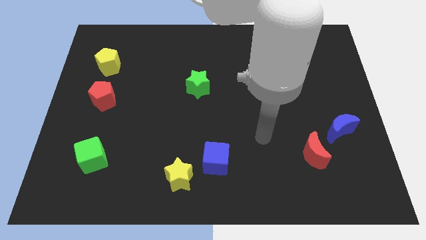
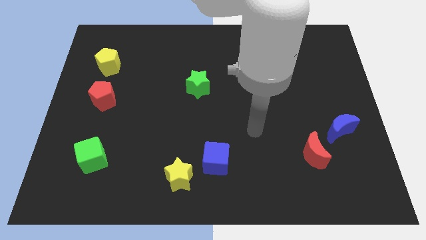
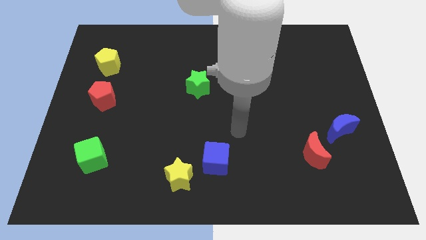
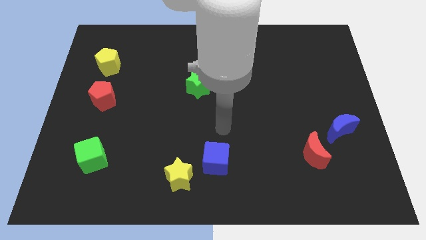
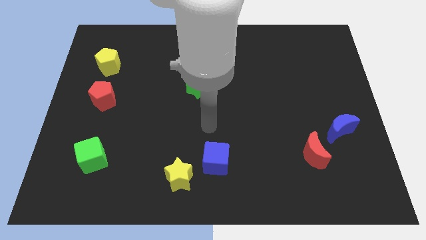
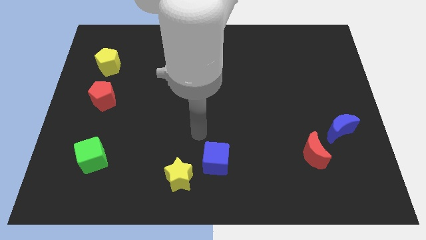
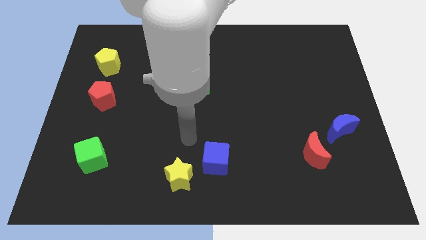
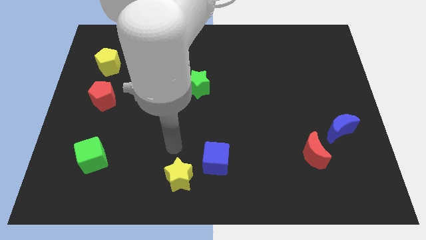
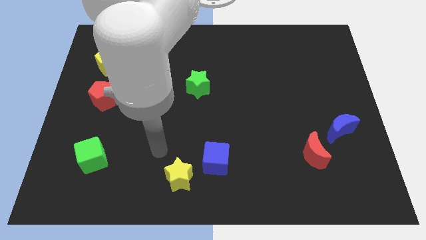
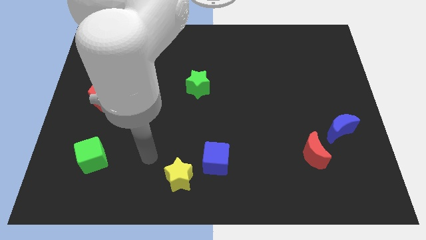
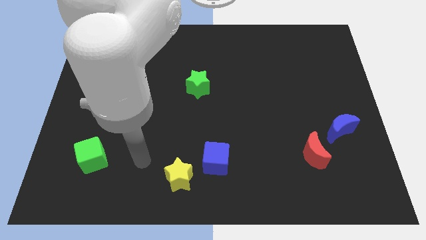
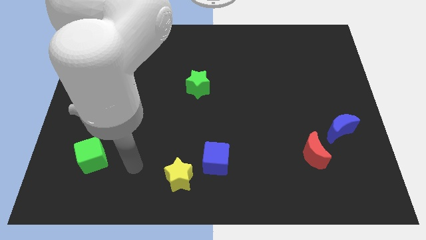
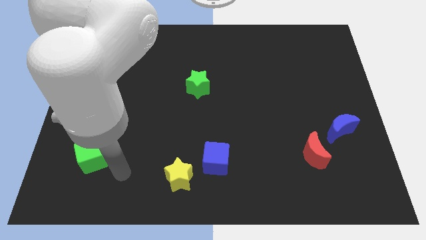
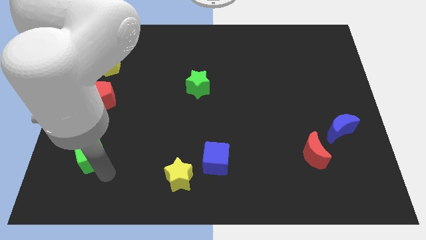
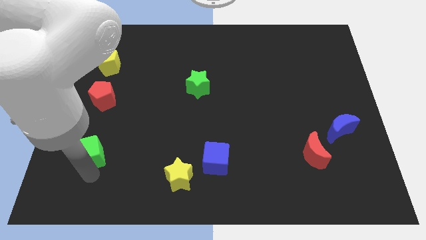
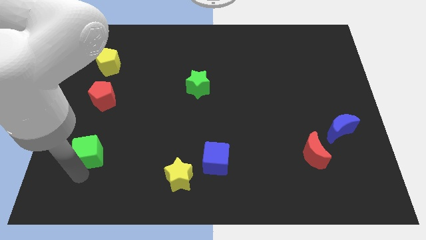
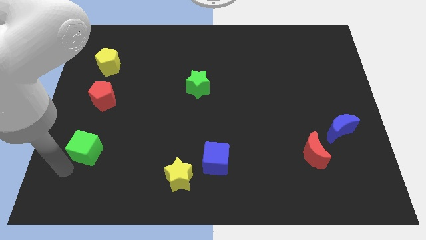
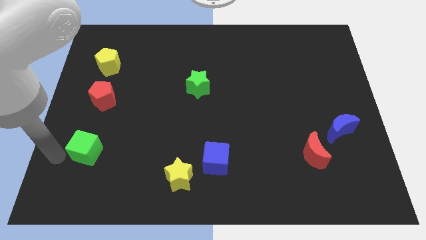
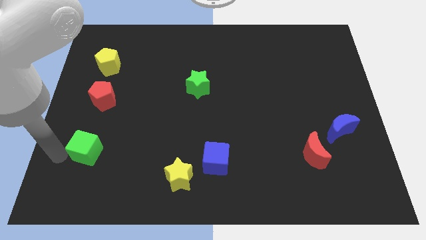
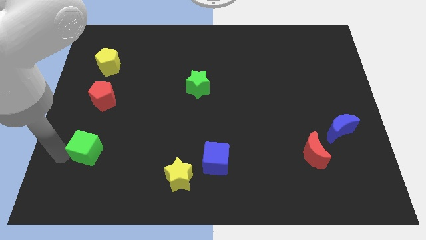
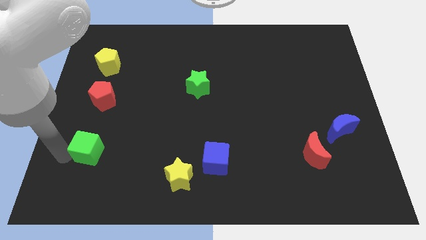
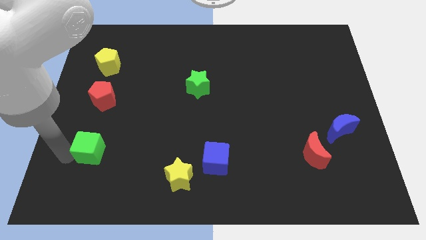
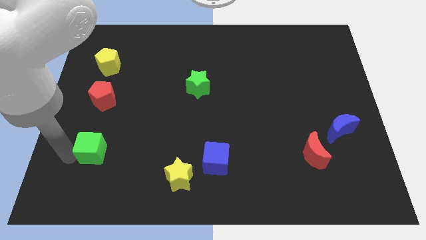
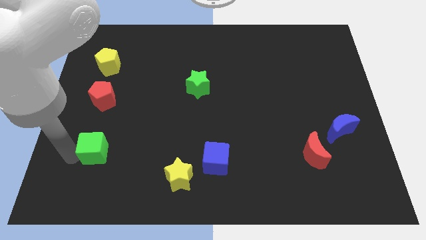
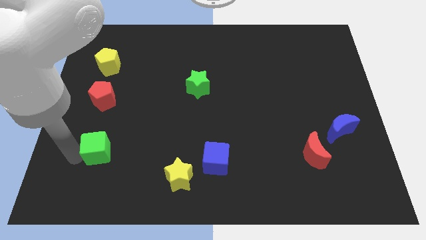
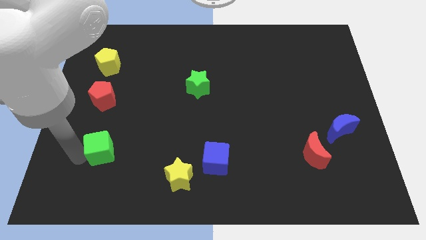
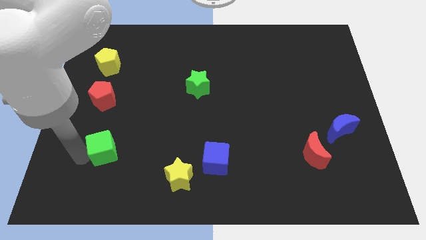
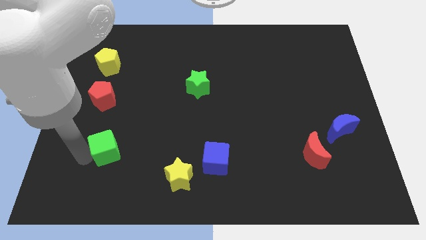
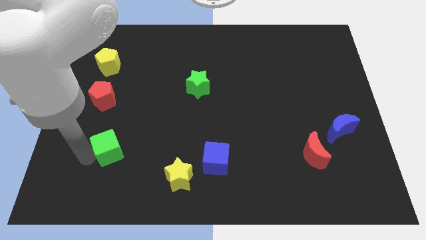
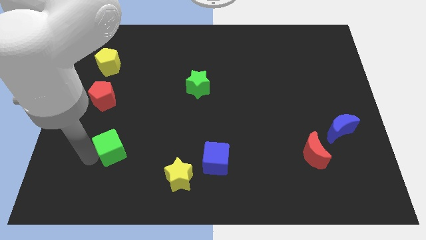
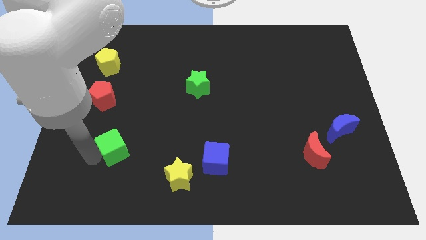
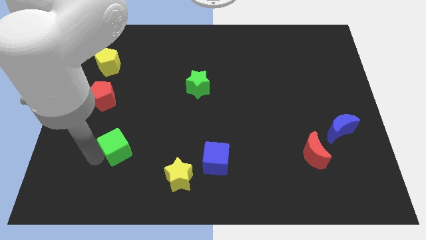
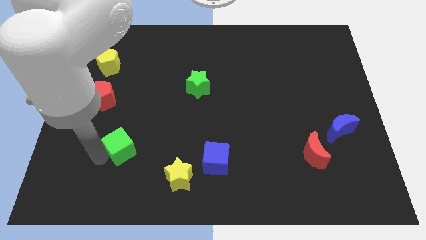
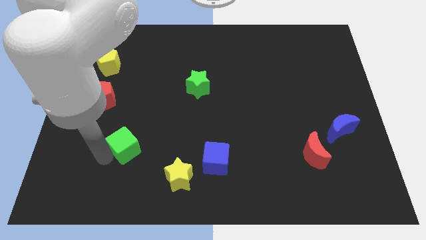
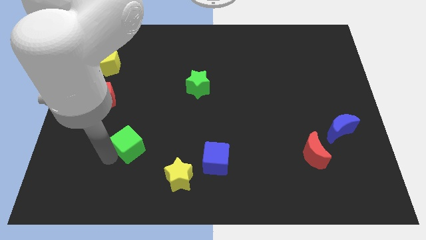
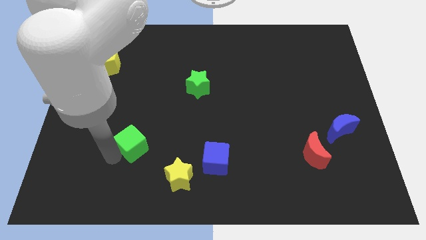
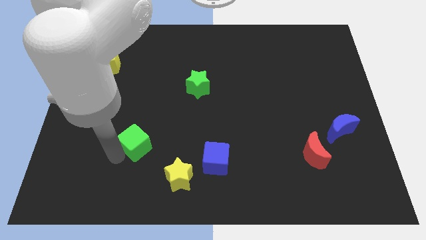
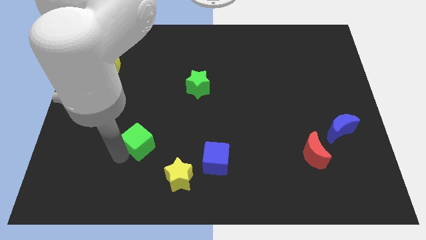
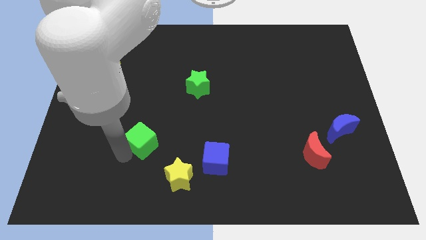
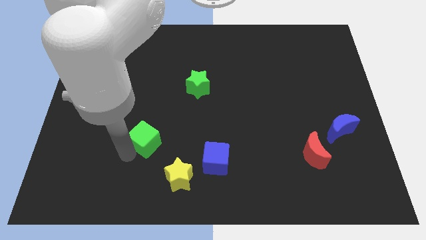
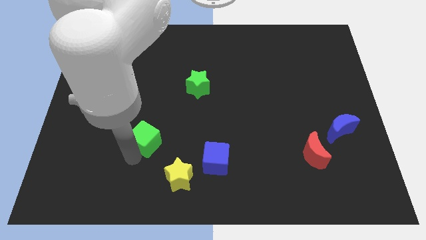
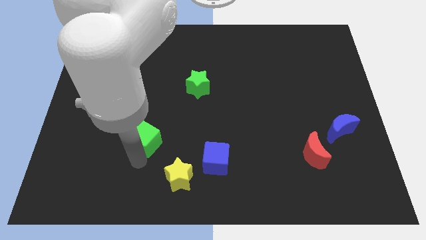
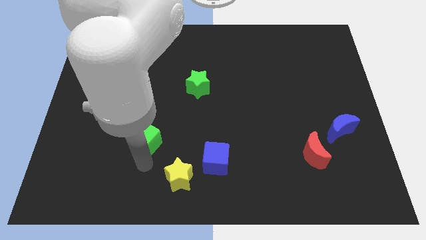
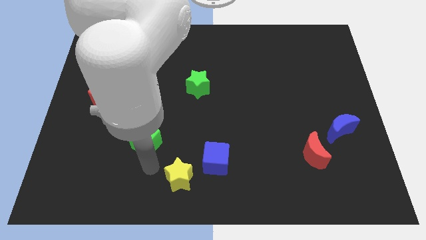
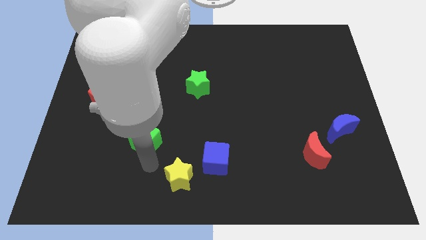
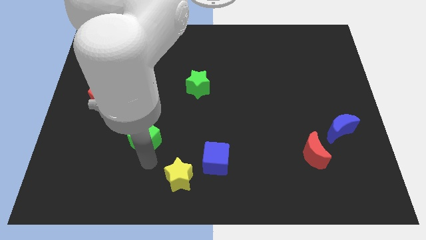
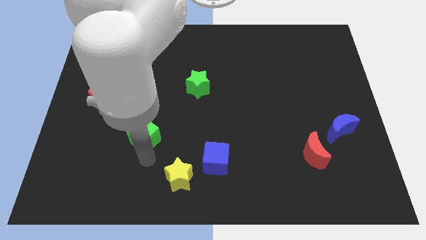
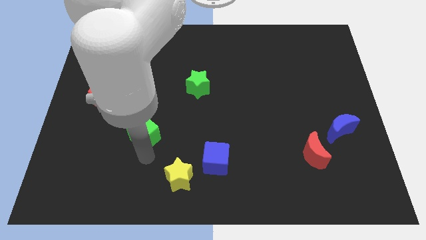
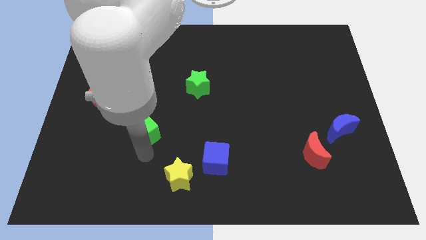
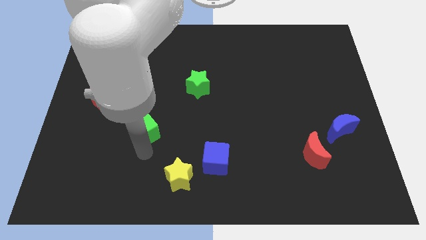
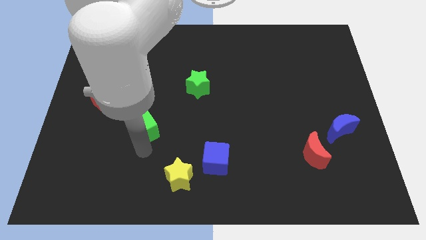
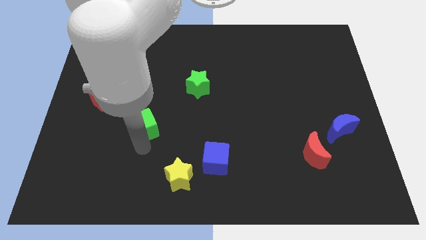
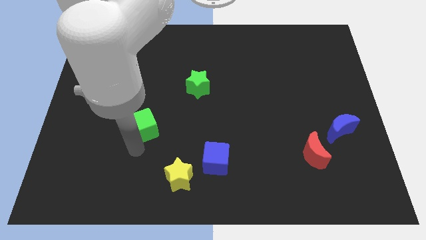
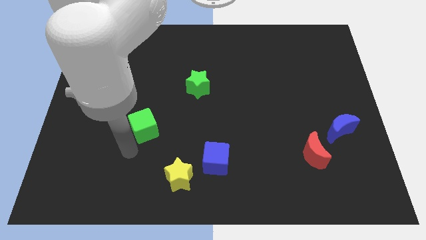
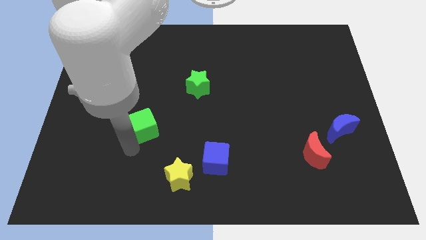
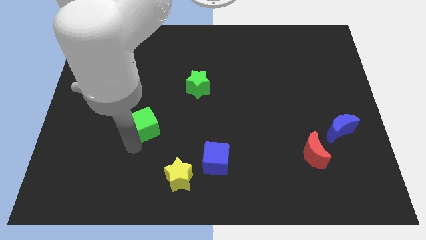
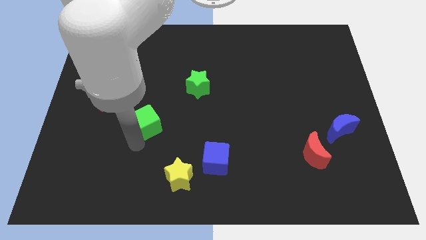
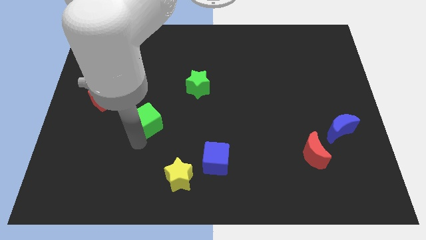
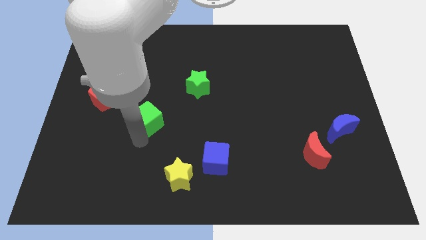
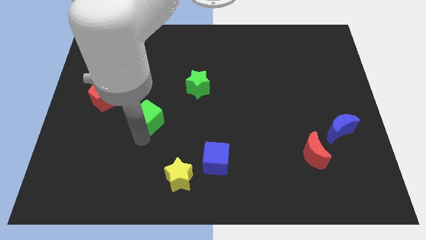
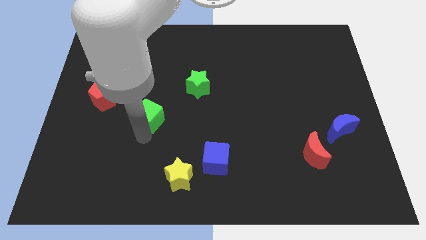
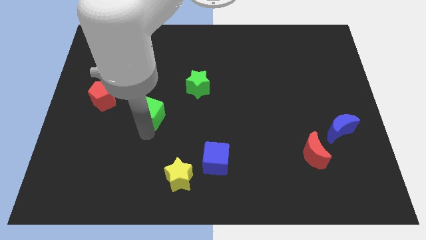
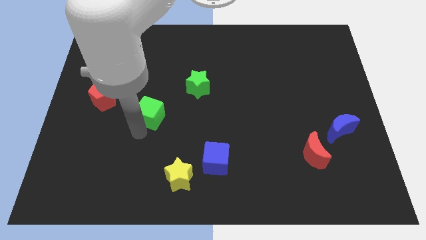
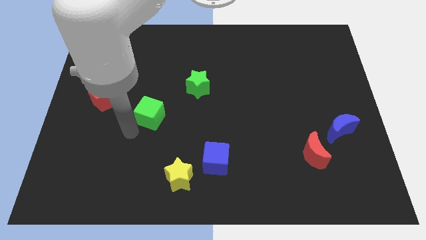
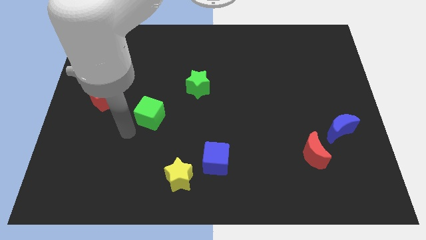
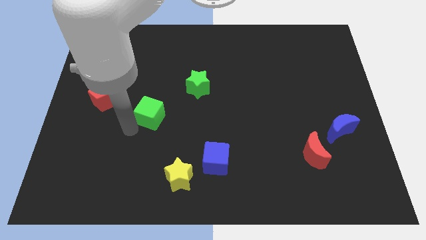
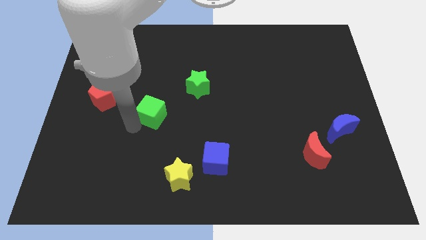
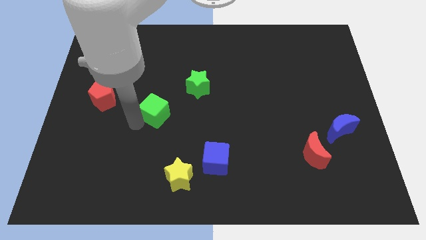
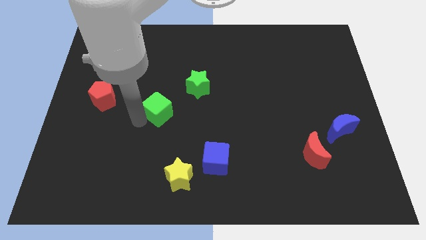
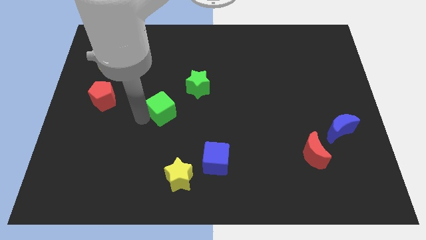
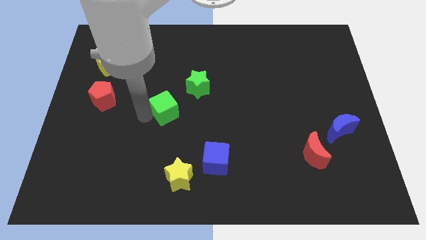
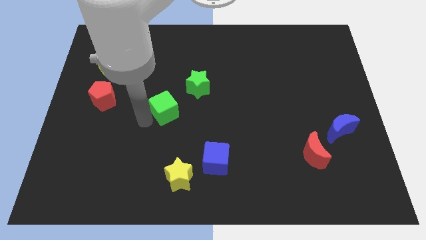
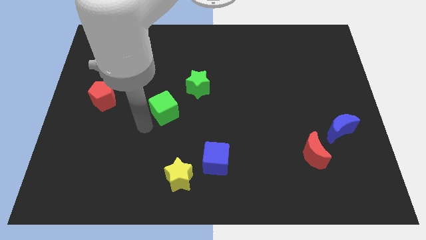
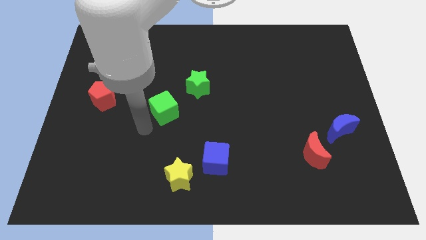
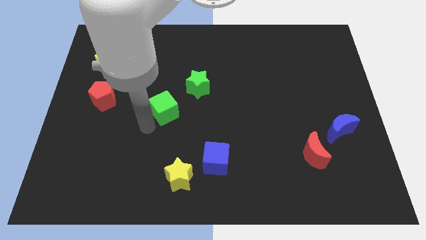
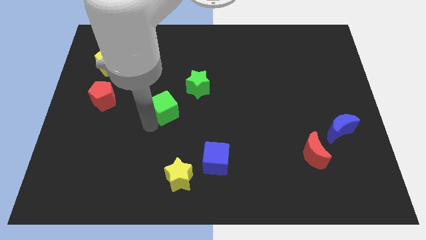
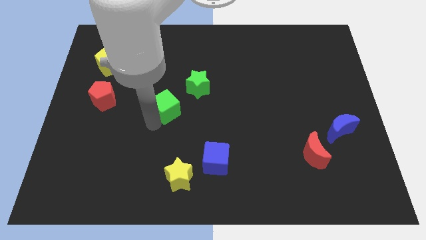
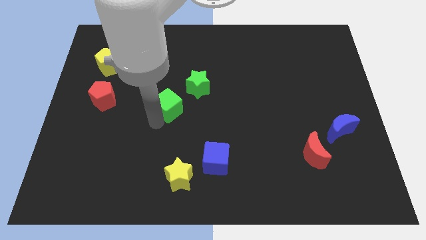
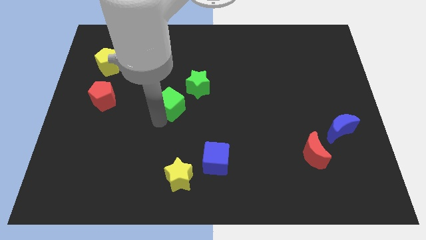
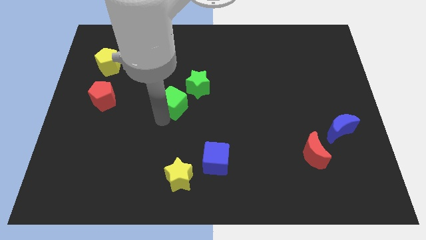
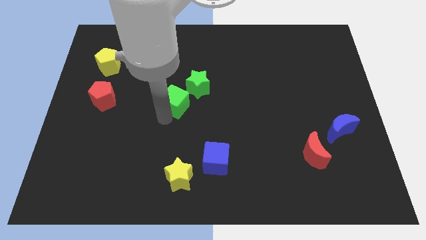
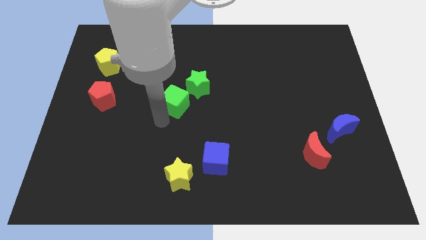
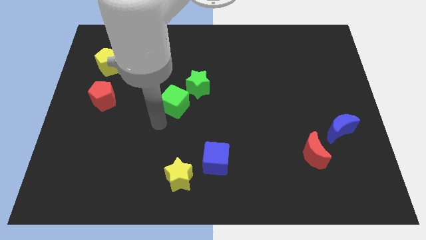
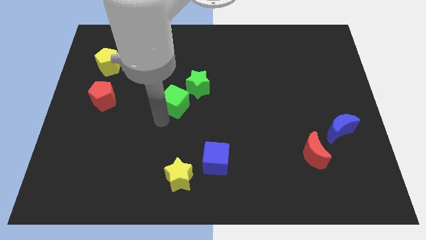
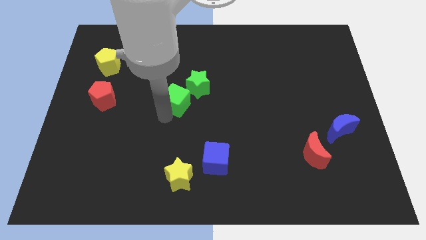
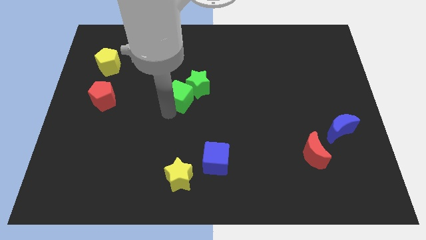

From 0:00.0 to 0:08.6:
move the green cube towards the green star
